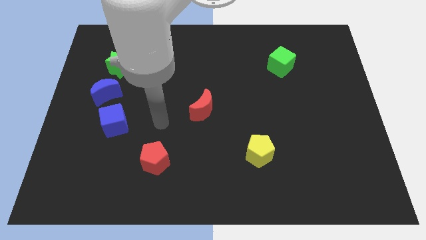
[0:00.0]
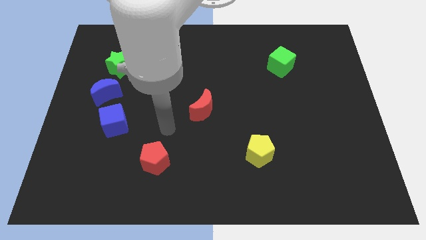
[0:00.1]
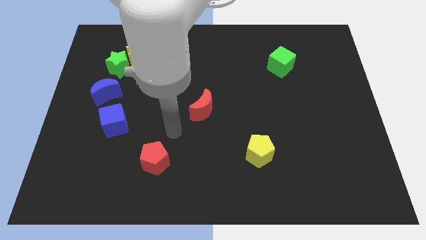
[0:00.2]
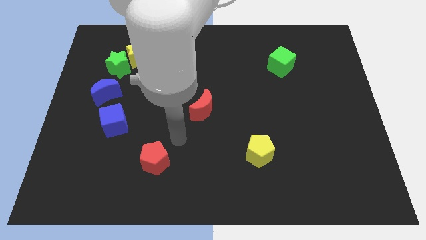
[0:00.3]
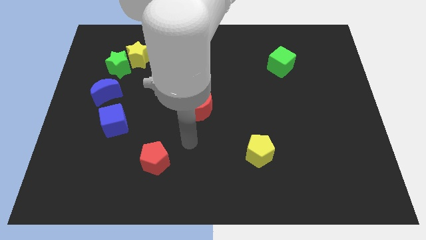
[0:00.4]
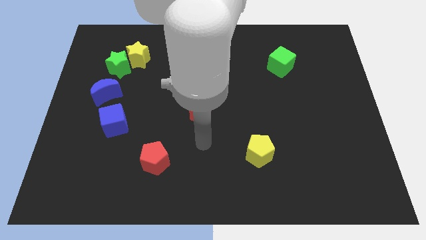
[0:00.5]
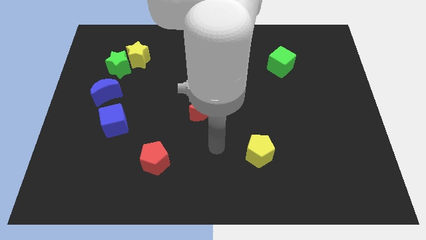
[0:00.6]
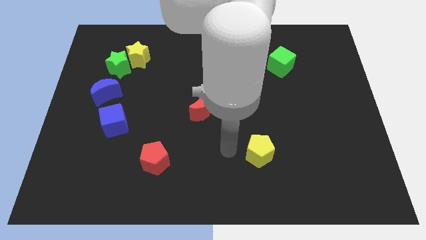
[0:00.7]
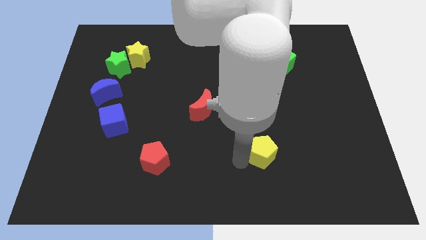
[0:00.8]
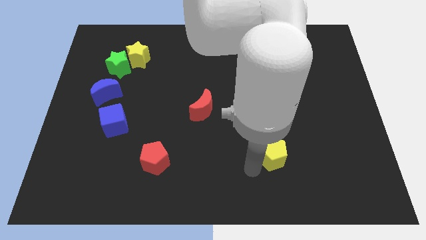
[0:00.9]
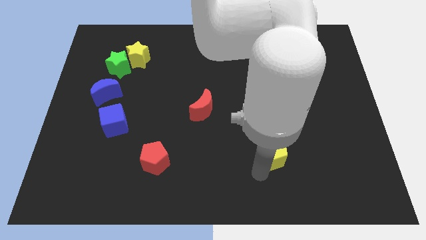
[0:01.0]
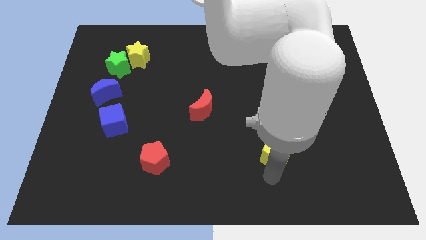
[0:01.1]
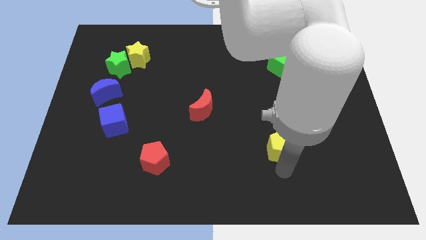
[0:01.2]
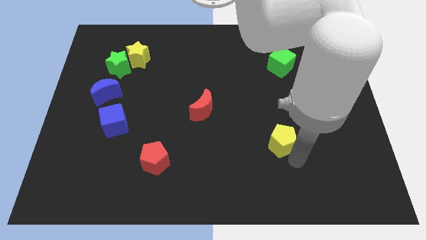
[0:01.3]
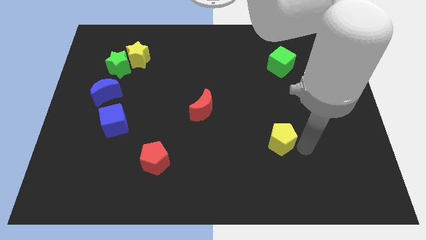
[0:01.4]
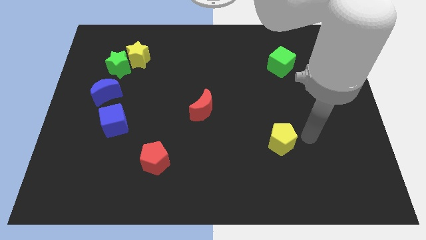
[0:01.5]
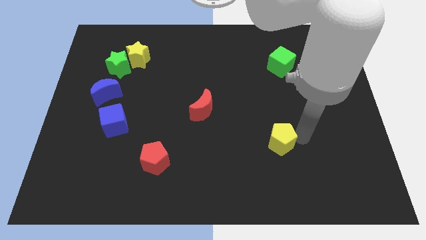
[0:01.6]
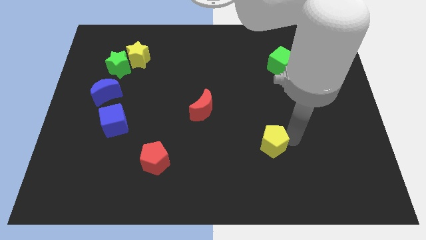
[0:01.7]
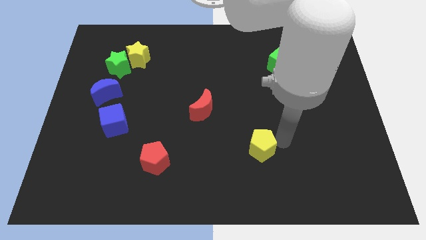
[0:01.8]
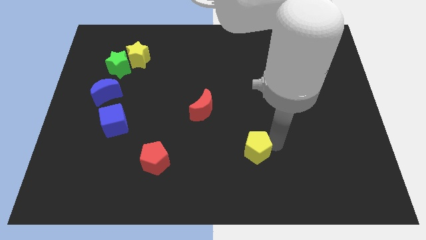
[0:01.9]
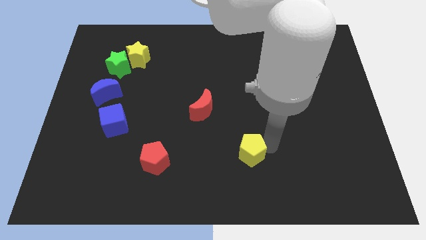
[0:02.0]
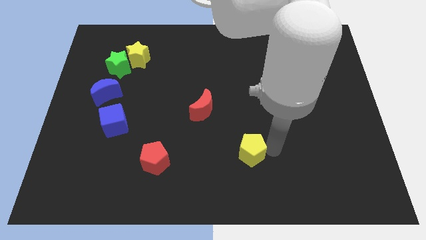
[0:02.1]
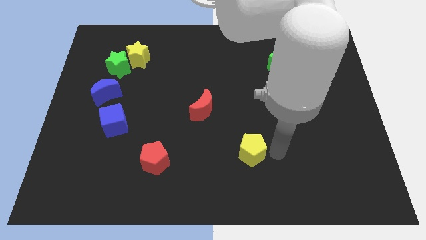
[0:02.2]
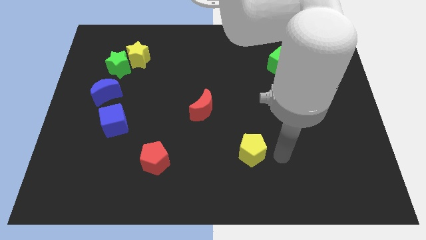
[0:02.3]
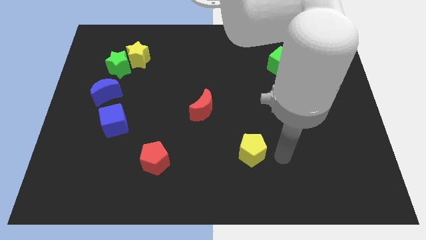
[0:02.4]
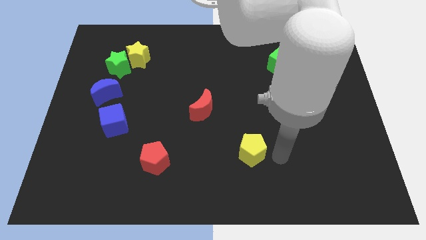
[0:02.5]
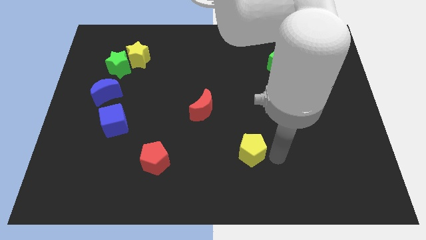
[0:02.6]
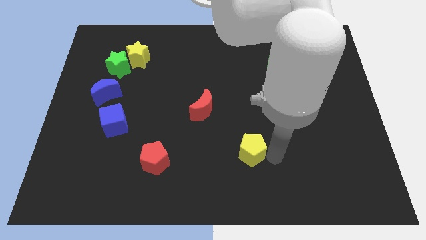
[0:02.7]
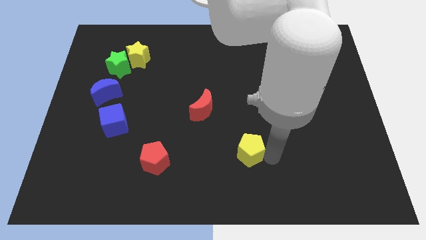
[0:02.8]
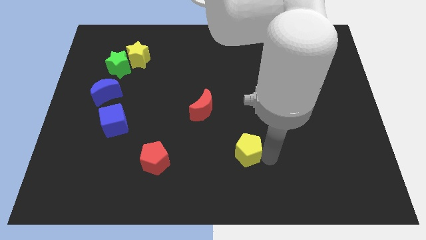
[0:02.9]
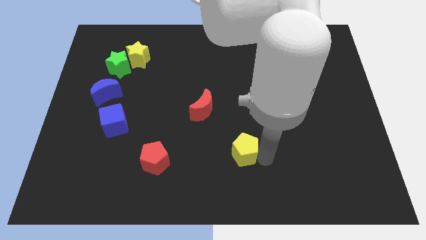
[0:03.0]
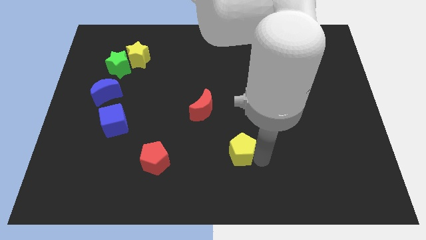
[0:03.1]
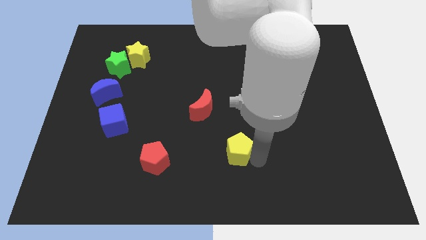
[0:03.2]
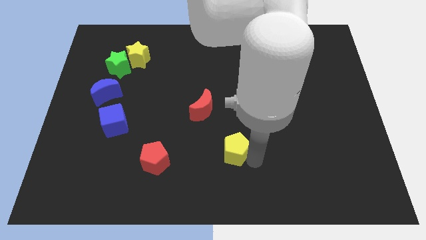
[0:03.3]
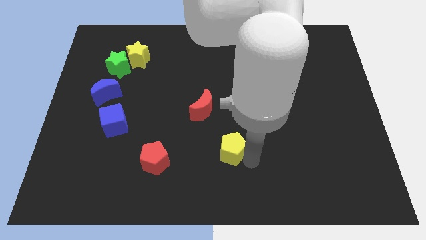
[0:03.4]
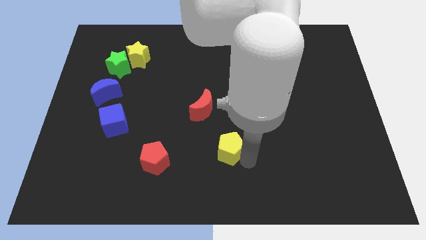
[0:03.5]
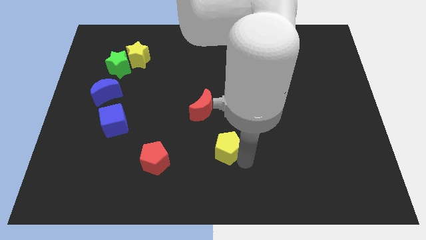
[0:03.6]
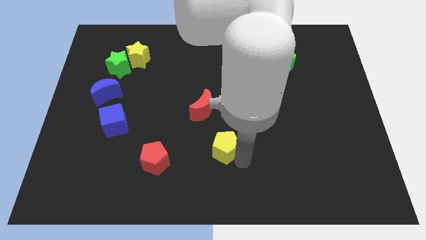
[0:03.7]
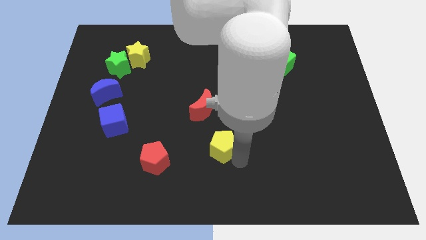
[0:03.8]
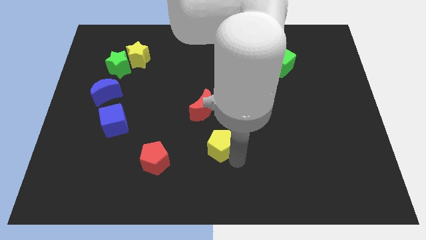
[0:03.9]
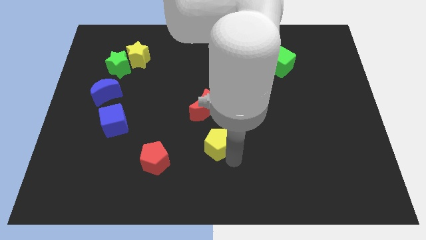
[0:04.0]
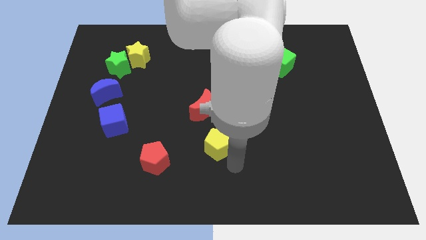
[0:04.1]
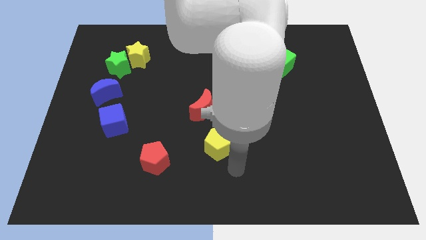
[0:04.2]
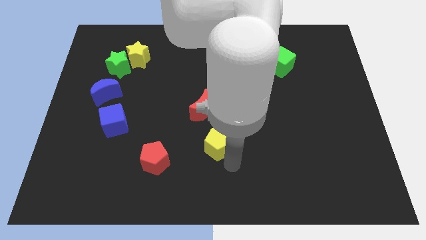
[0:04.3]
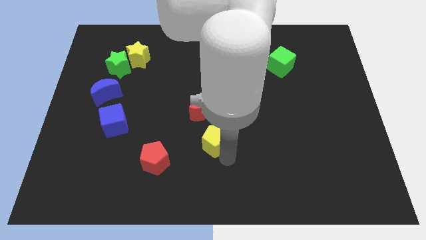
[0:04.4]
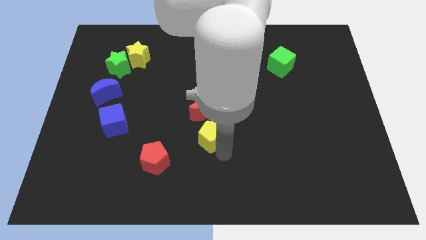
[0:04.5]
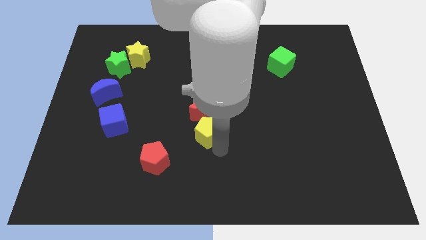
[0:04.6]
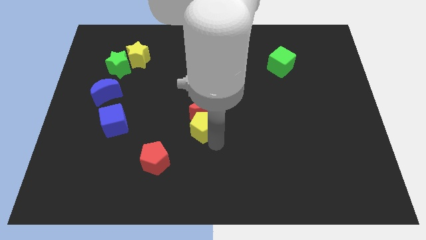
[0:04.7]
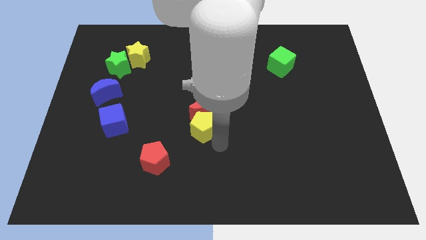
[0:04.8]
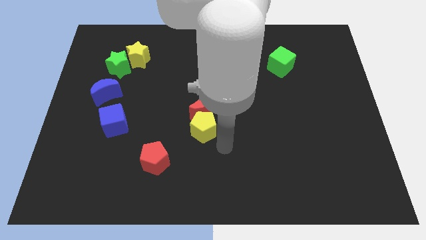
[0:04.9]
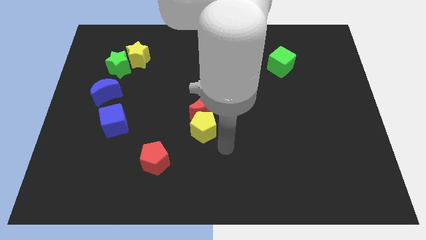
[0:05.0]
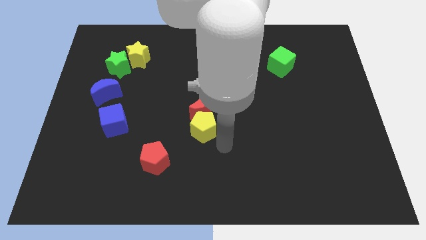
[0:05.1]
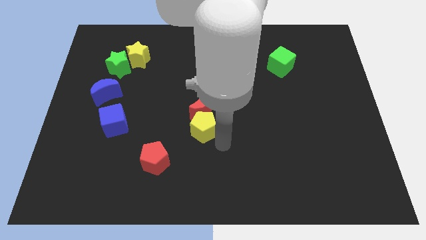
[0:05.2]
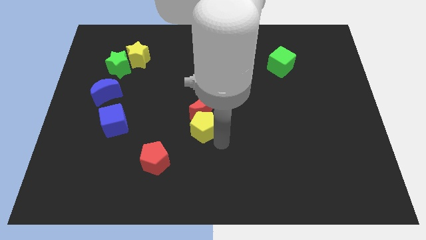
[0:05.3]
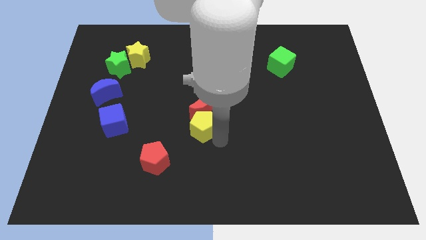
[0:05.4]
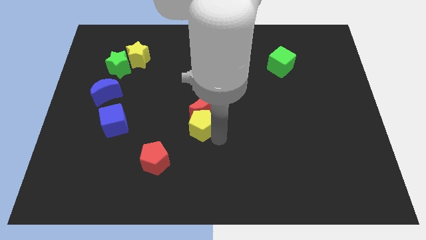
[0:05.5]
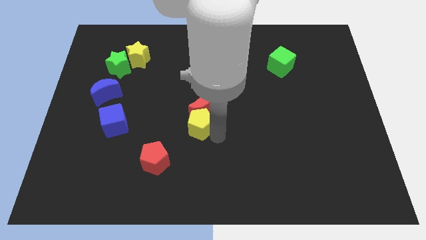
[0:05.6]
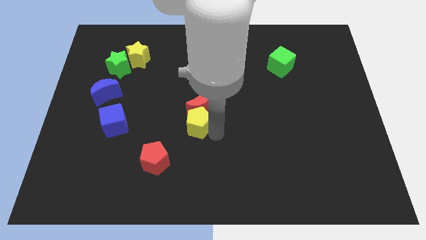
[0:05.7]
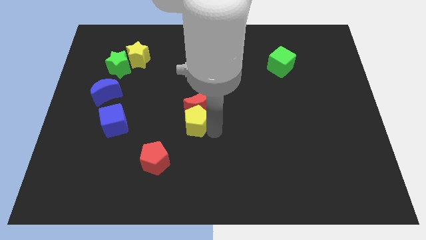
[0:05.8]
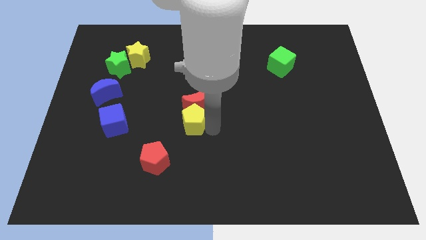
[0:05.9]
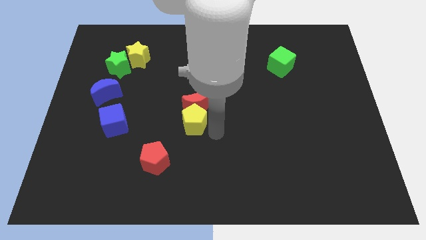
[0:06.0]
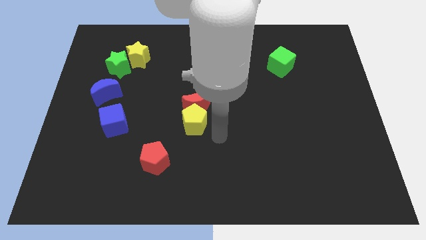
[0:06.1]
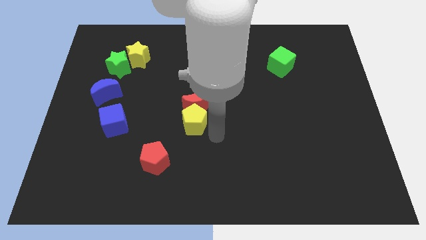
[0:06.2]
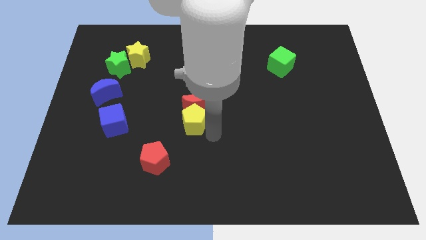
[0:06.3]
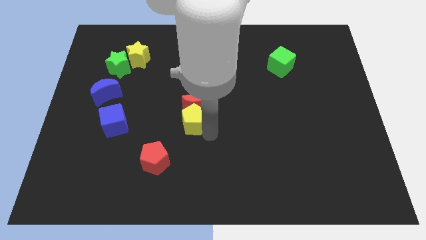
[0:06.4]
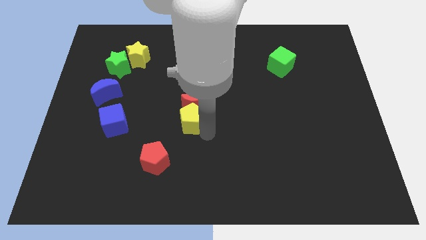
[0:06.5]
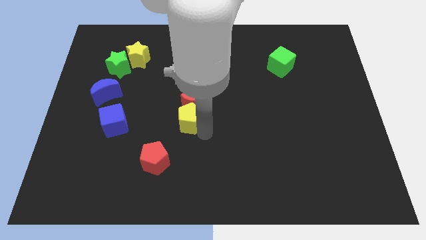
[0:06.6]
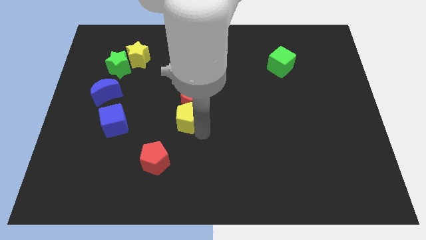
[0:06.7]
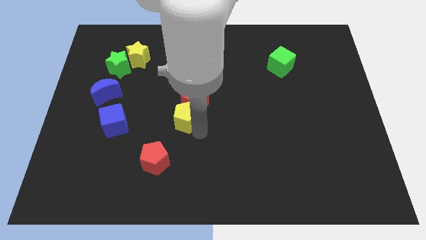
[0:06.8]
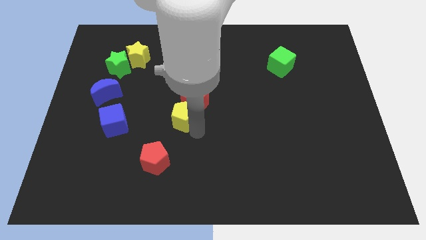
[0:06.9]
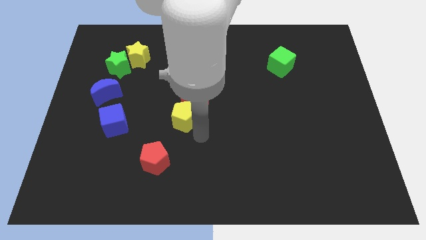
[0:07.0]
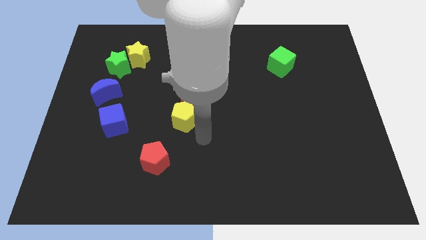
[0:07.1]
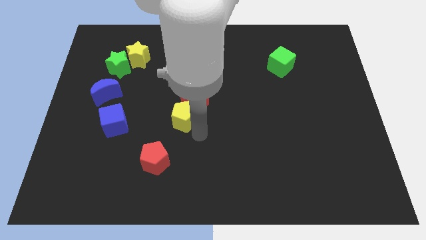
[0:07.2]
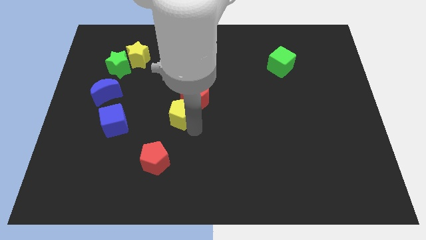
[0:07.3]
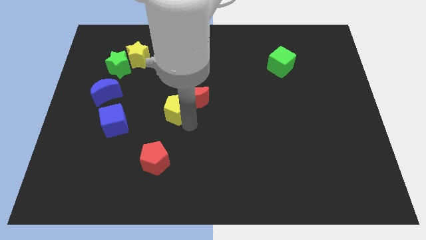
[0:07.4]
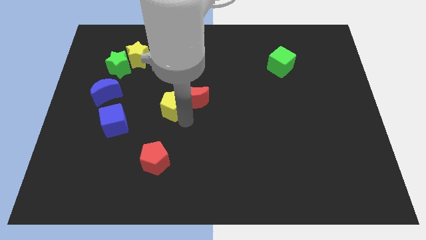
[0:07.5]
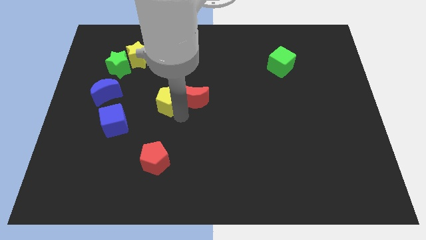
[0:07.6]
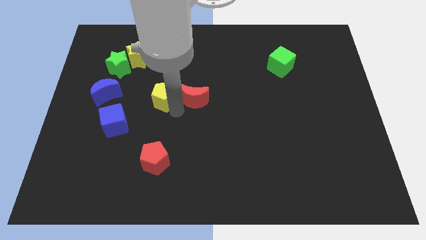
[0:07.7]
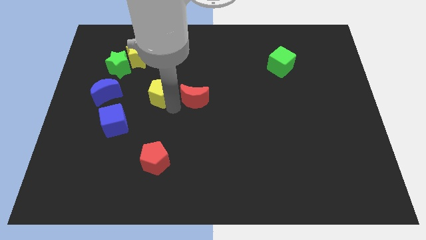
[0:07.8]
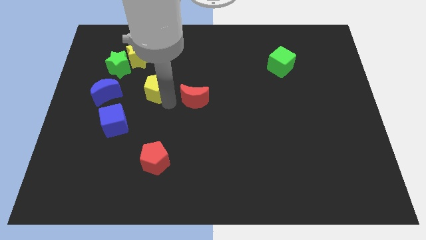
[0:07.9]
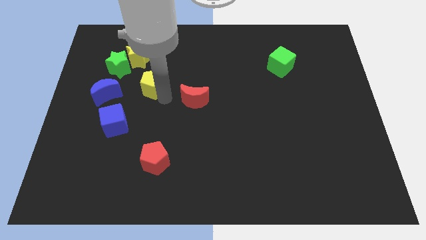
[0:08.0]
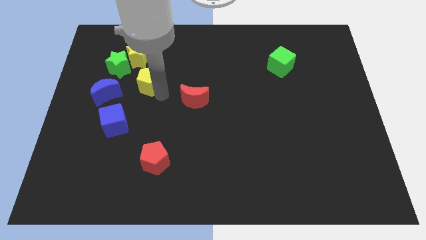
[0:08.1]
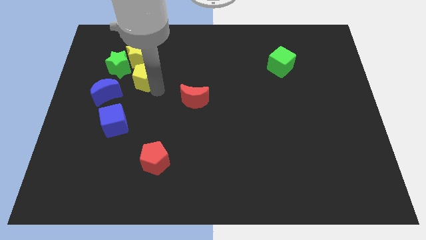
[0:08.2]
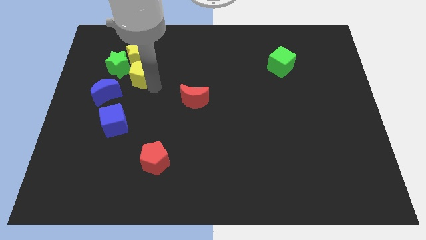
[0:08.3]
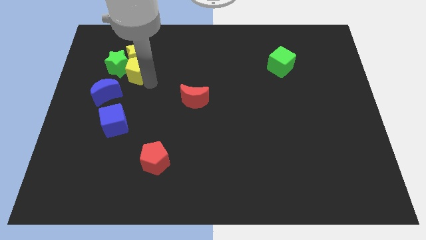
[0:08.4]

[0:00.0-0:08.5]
push the yellow pentagon close to the green star
